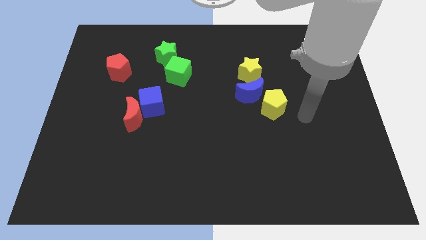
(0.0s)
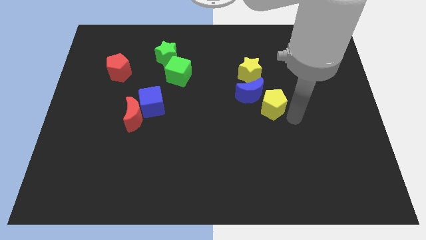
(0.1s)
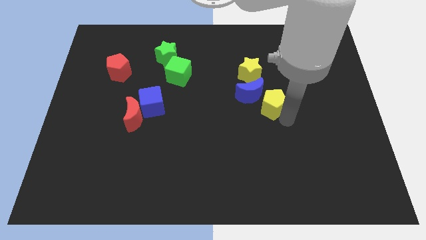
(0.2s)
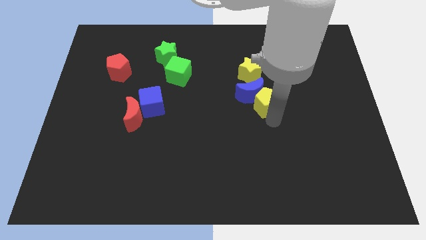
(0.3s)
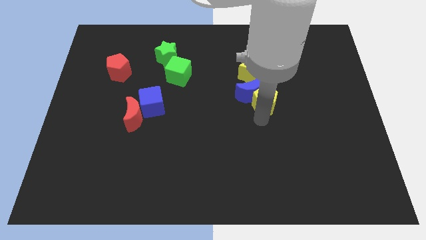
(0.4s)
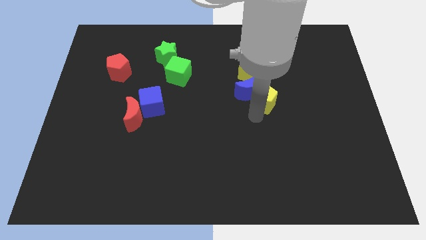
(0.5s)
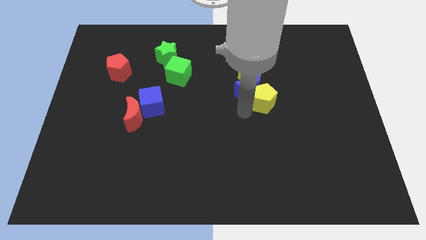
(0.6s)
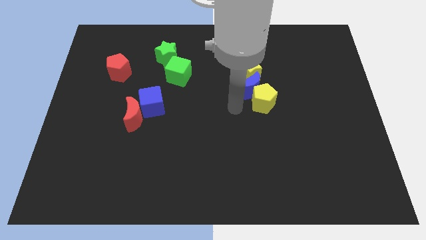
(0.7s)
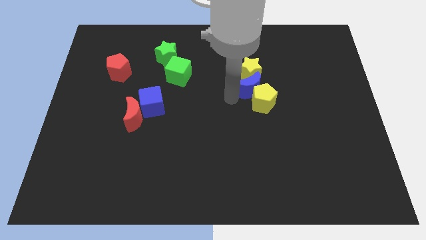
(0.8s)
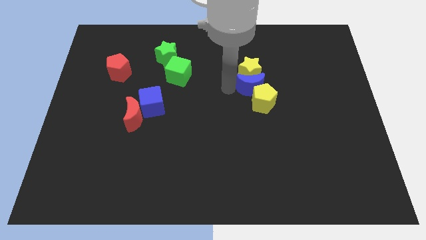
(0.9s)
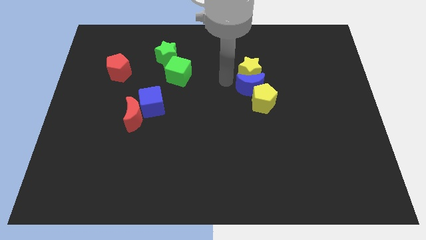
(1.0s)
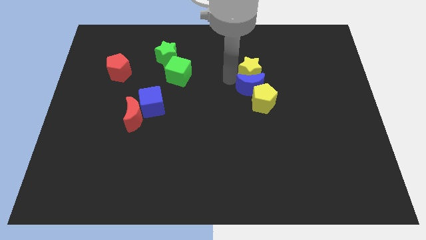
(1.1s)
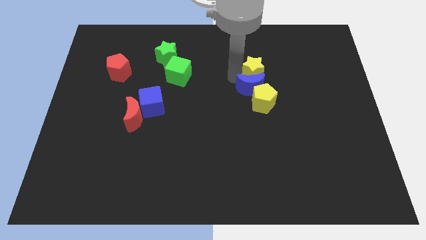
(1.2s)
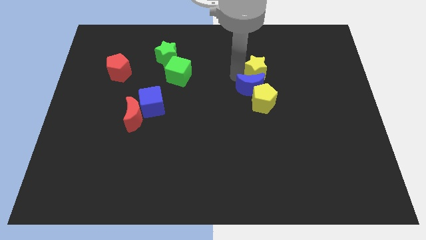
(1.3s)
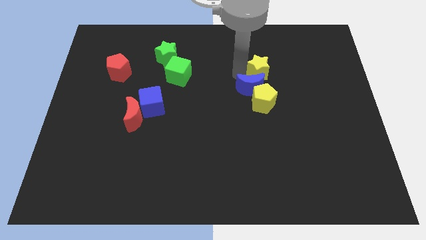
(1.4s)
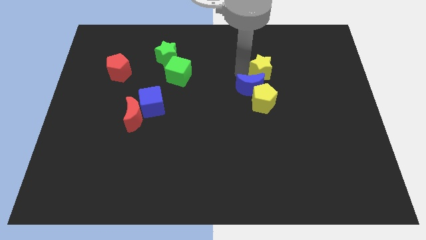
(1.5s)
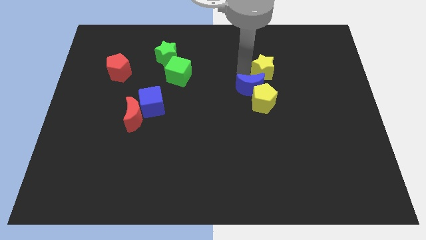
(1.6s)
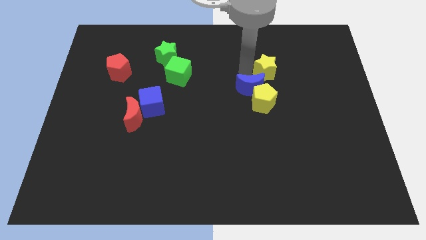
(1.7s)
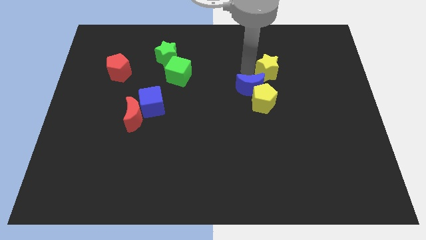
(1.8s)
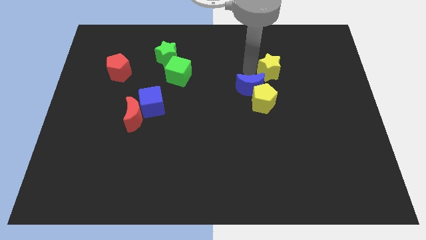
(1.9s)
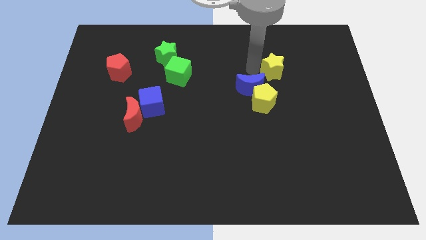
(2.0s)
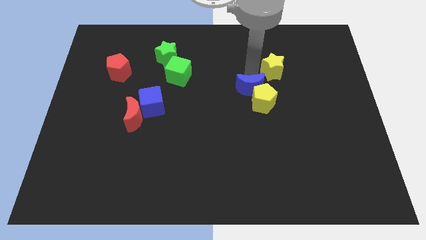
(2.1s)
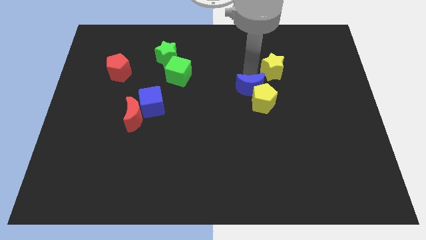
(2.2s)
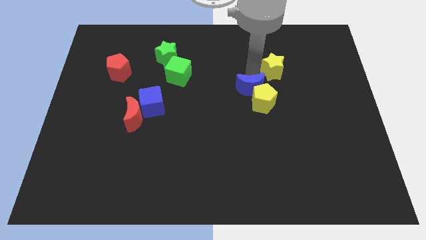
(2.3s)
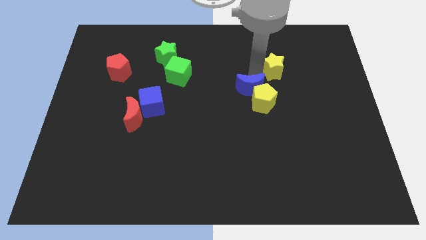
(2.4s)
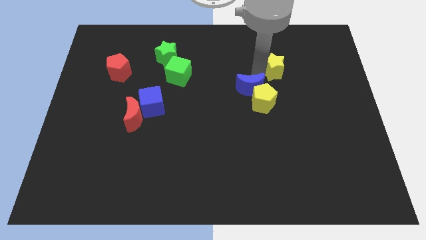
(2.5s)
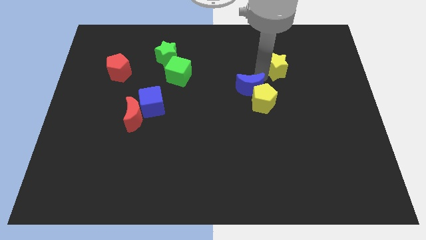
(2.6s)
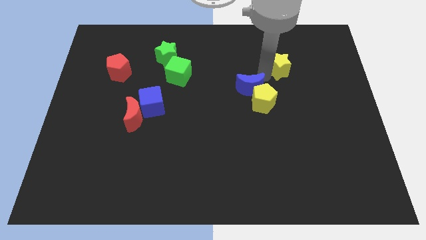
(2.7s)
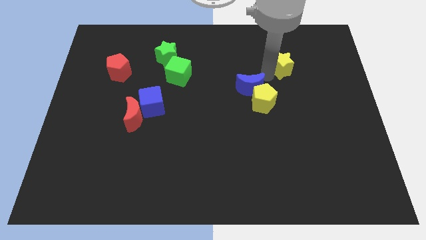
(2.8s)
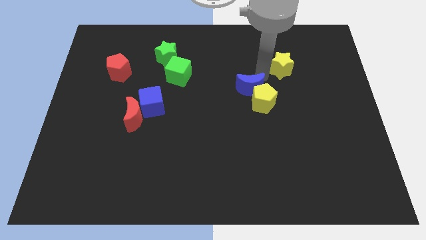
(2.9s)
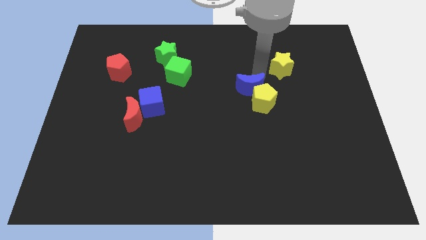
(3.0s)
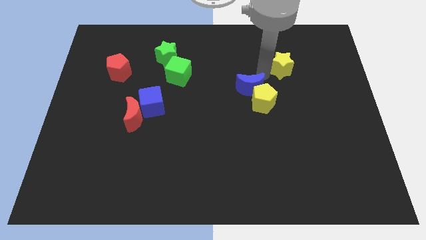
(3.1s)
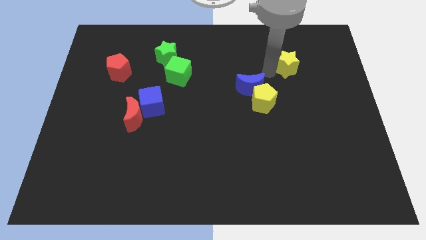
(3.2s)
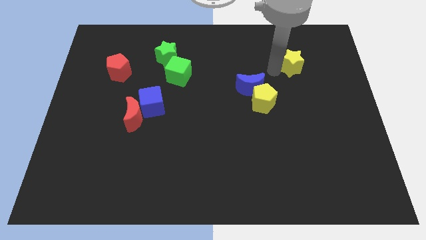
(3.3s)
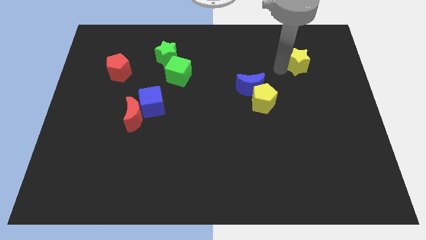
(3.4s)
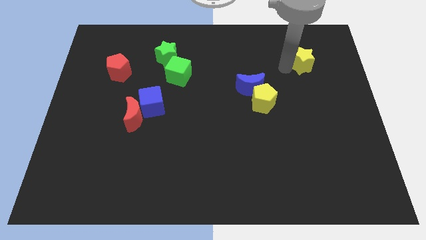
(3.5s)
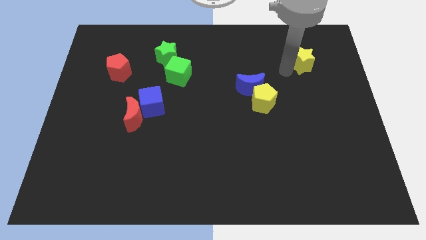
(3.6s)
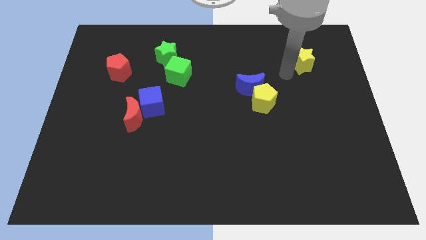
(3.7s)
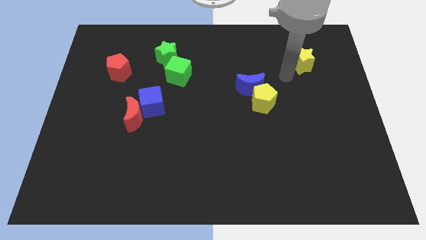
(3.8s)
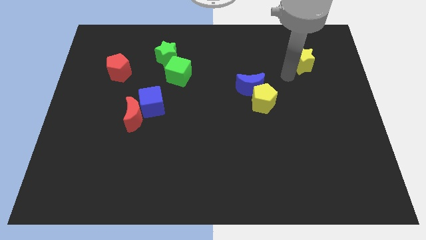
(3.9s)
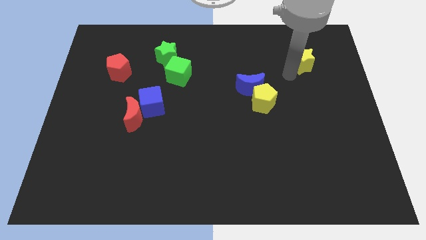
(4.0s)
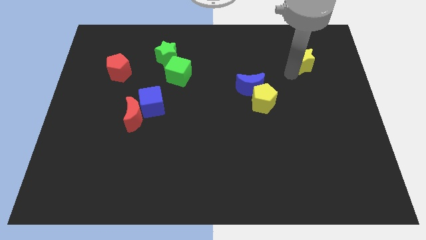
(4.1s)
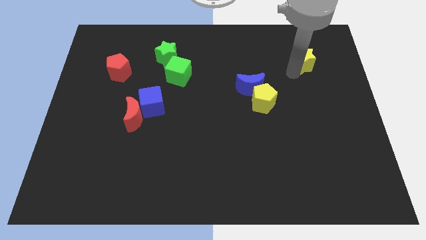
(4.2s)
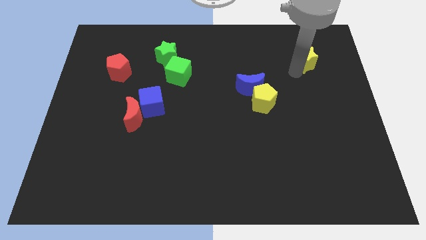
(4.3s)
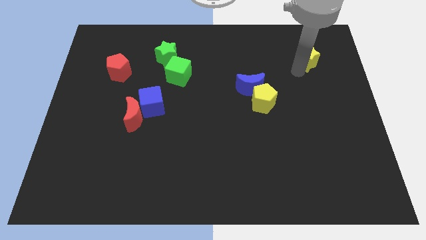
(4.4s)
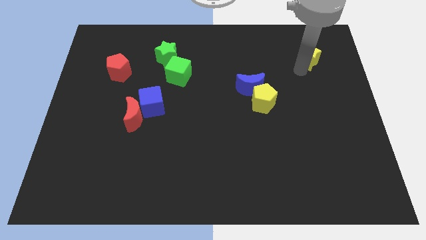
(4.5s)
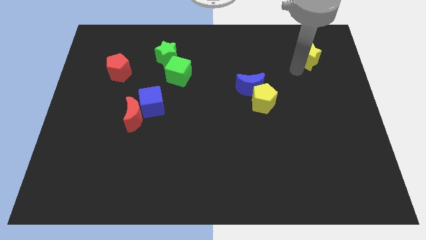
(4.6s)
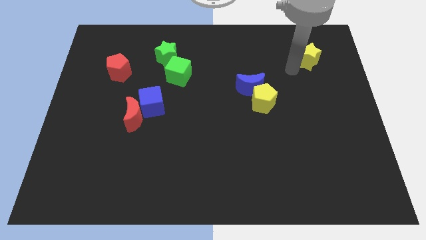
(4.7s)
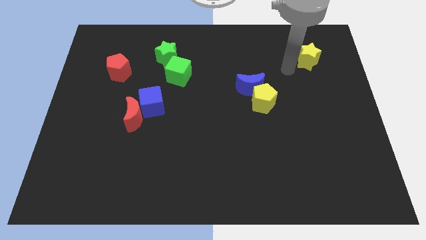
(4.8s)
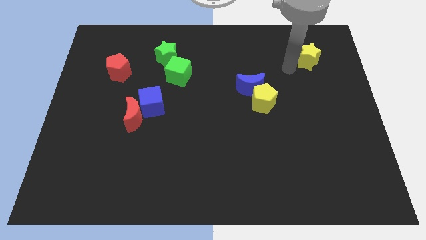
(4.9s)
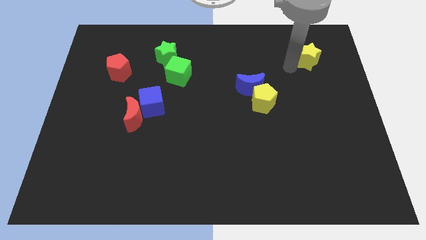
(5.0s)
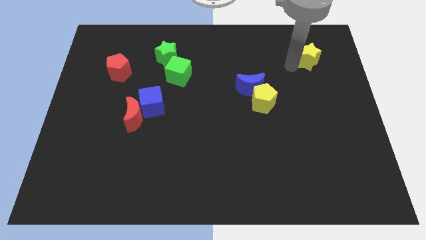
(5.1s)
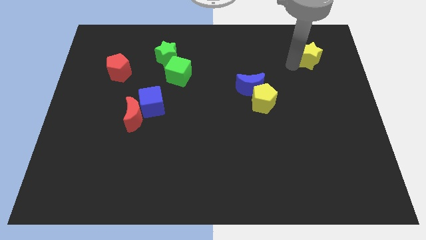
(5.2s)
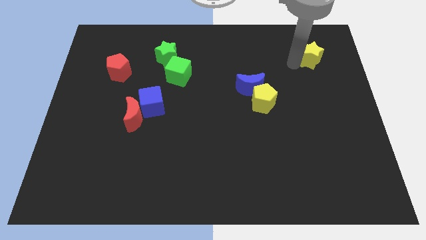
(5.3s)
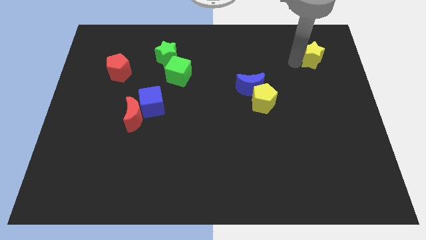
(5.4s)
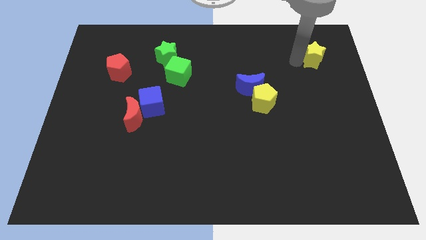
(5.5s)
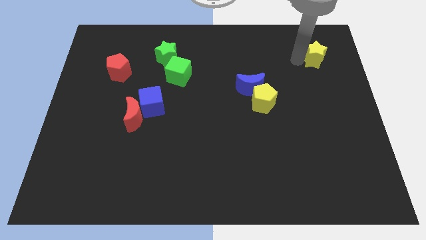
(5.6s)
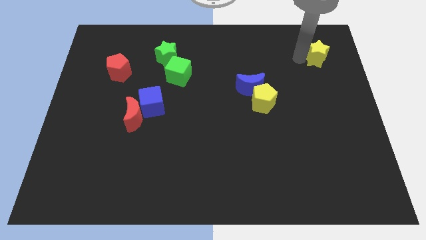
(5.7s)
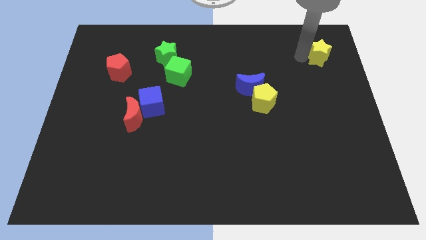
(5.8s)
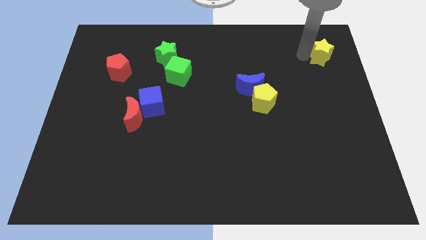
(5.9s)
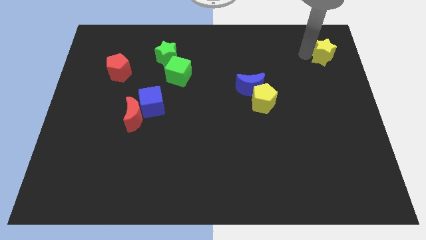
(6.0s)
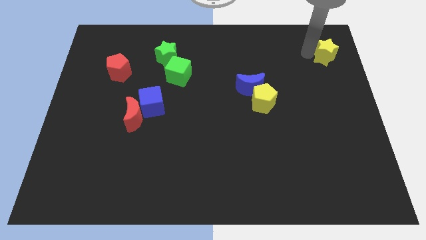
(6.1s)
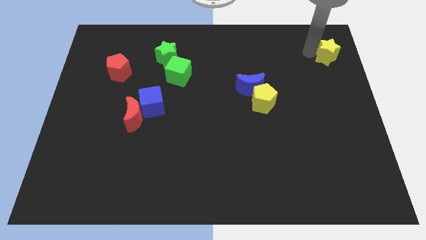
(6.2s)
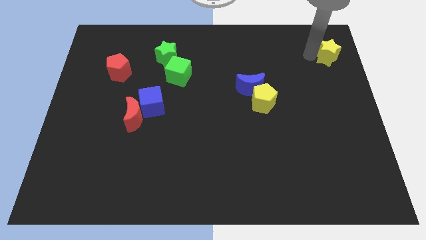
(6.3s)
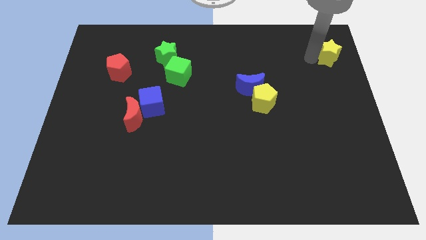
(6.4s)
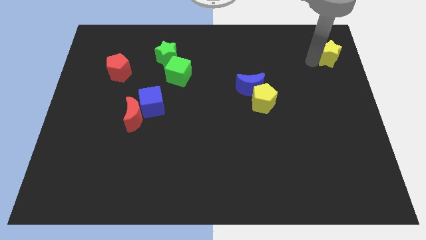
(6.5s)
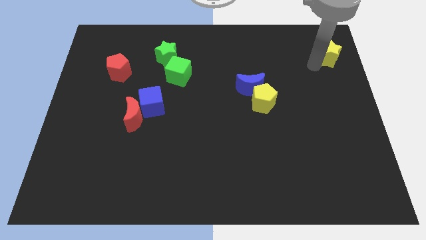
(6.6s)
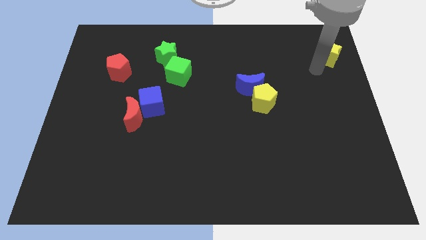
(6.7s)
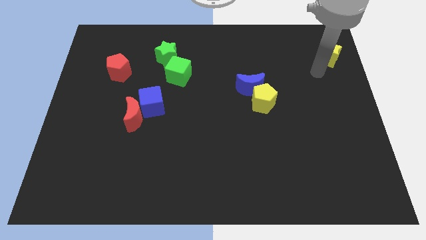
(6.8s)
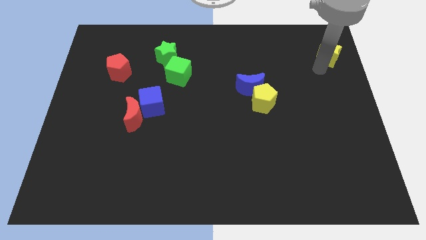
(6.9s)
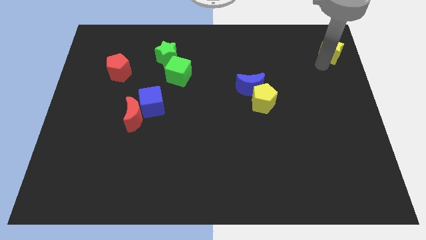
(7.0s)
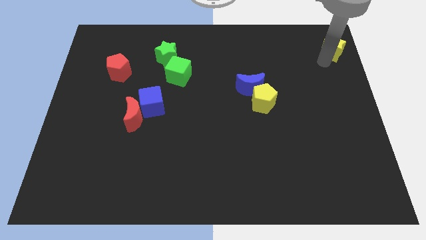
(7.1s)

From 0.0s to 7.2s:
move the yellow star to the upper right corner
